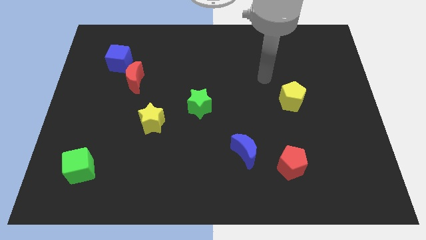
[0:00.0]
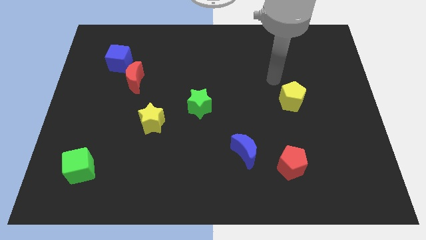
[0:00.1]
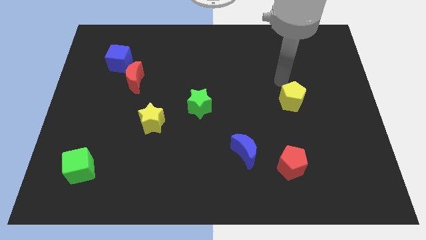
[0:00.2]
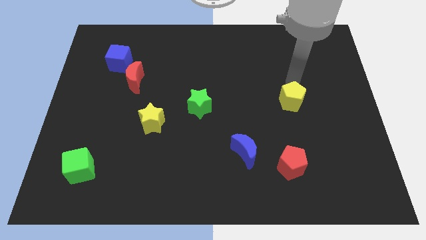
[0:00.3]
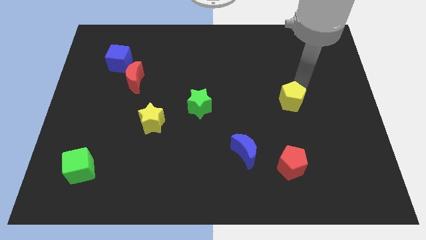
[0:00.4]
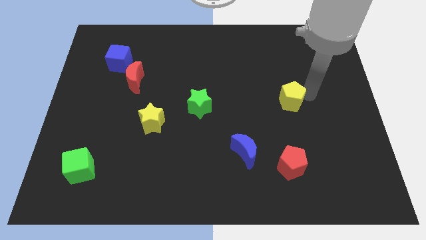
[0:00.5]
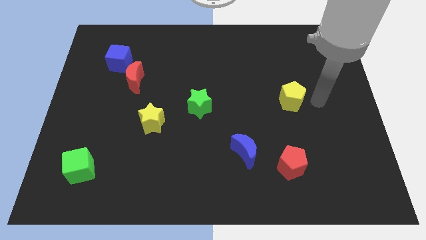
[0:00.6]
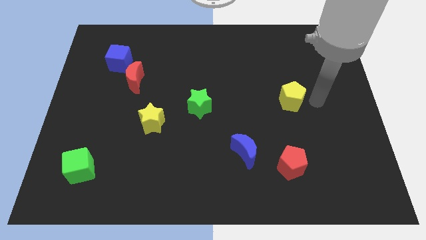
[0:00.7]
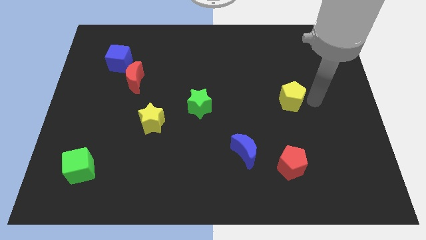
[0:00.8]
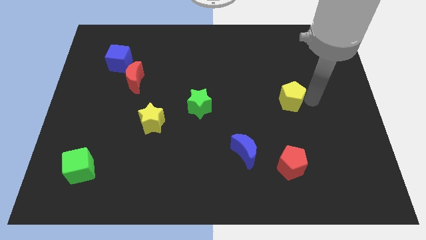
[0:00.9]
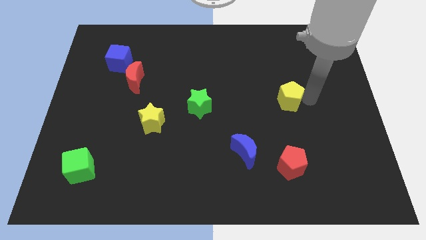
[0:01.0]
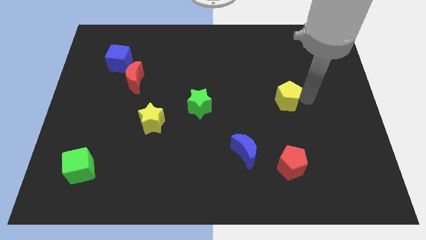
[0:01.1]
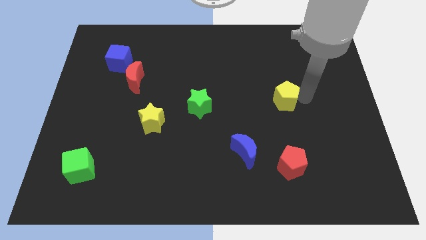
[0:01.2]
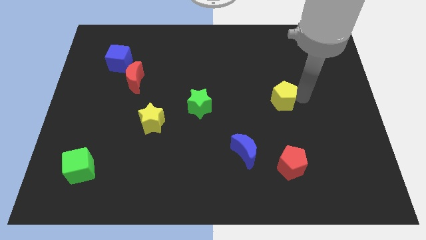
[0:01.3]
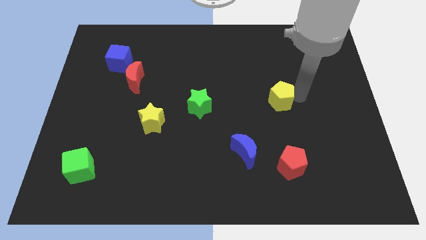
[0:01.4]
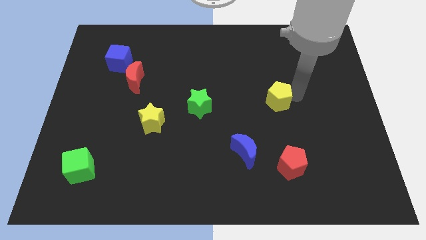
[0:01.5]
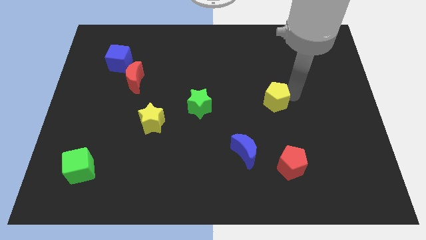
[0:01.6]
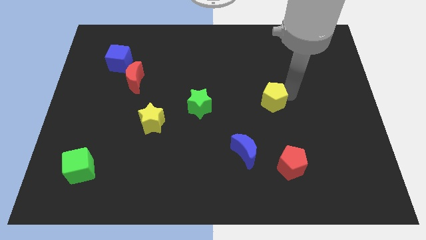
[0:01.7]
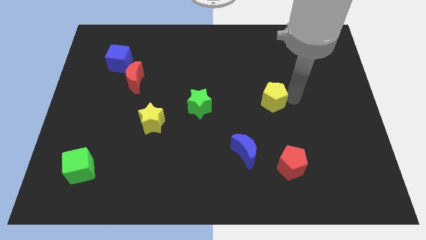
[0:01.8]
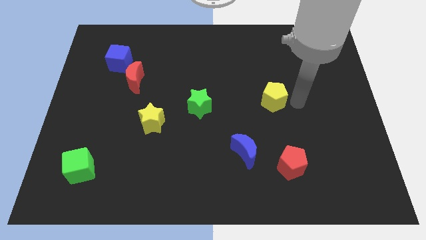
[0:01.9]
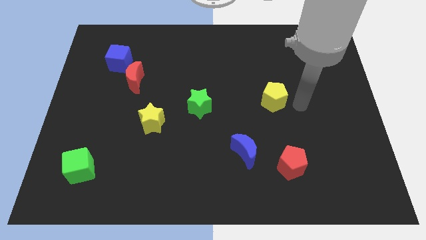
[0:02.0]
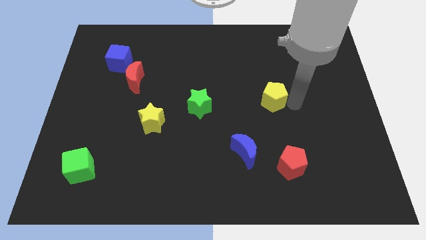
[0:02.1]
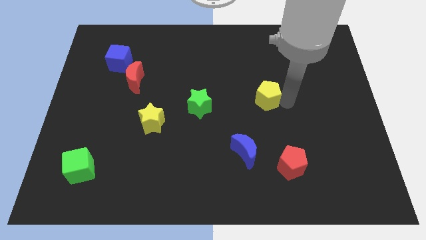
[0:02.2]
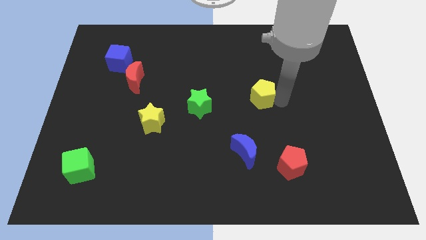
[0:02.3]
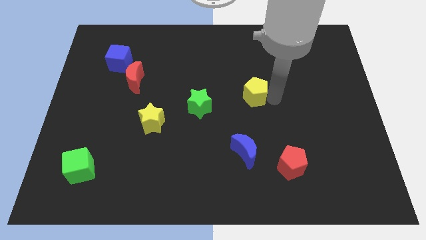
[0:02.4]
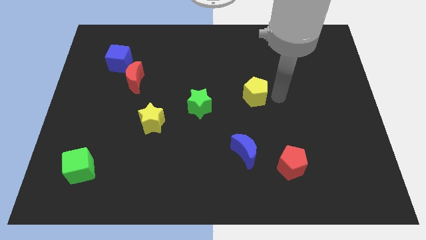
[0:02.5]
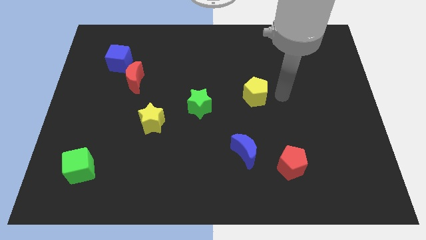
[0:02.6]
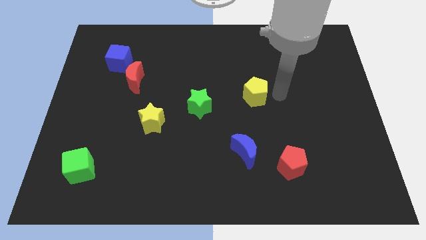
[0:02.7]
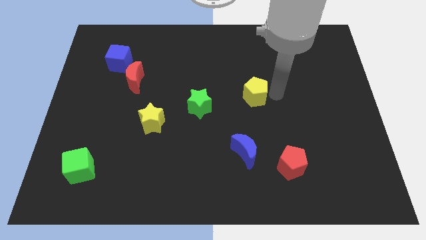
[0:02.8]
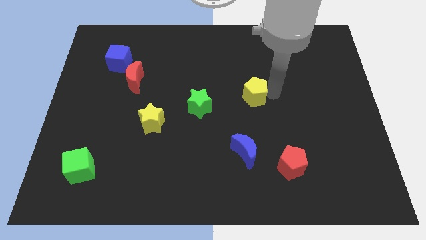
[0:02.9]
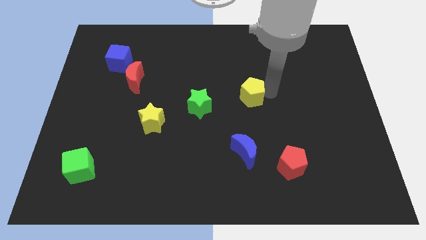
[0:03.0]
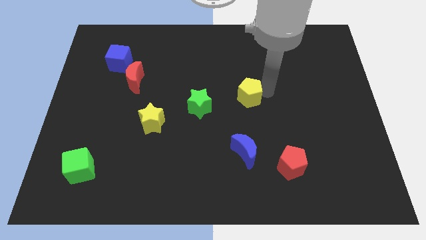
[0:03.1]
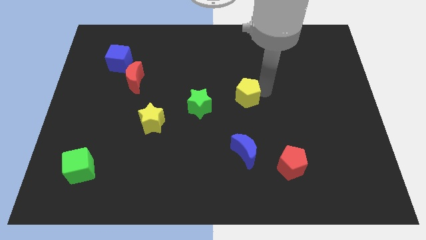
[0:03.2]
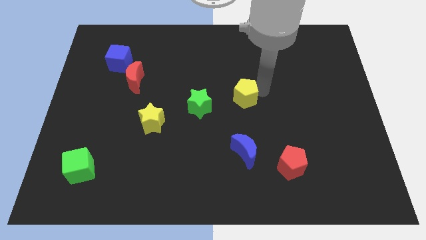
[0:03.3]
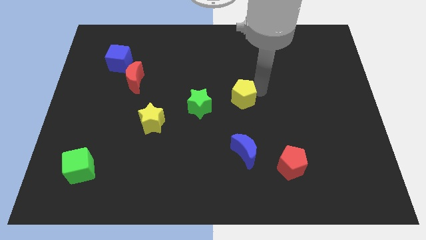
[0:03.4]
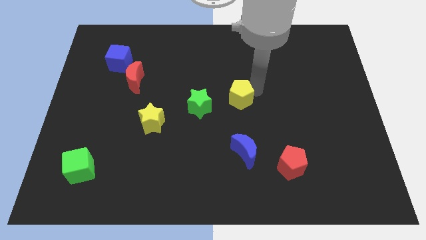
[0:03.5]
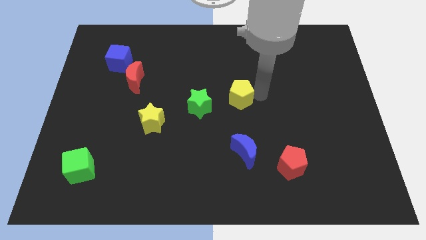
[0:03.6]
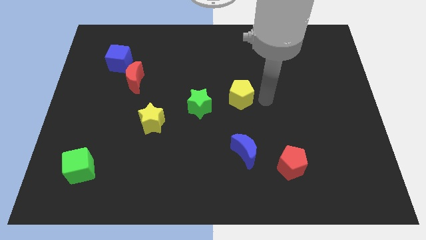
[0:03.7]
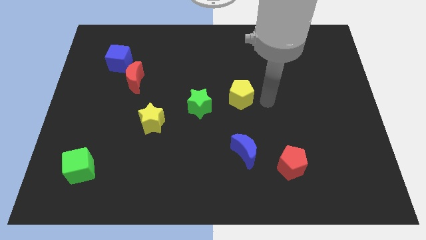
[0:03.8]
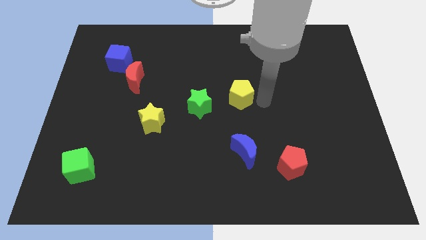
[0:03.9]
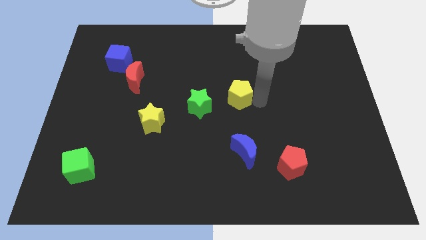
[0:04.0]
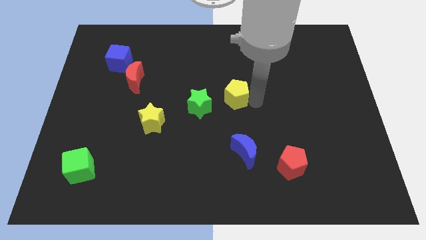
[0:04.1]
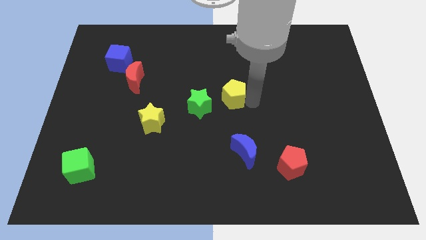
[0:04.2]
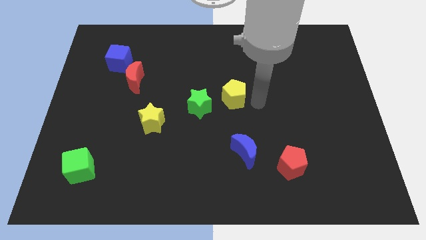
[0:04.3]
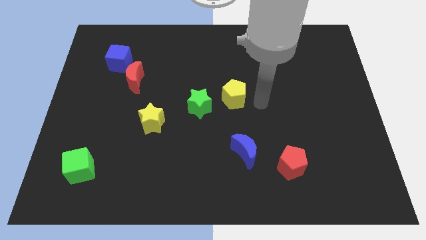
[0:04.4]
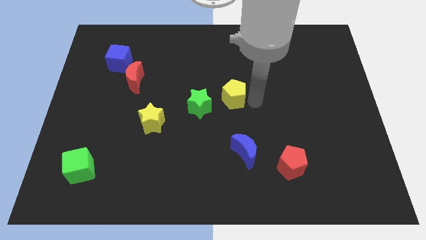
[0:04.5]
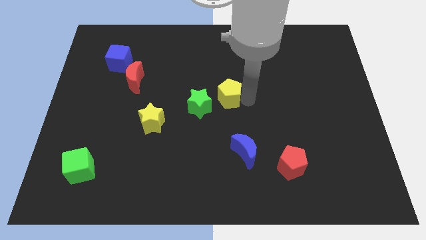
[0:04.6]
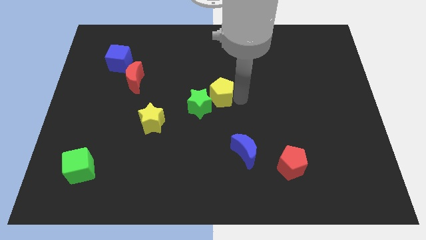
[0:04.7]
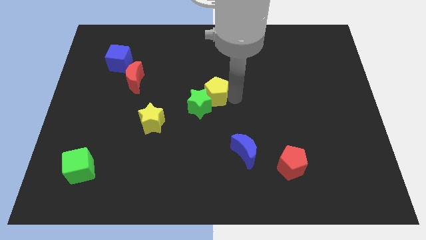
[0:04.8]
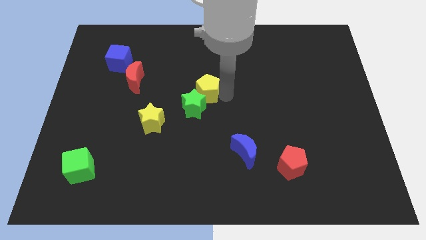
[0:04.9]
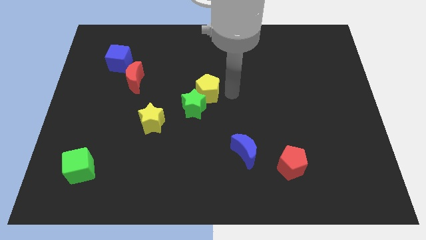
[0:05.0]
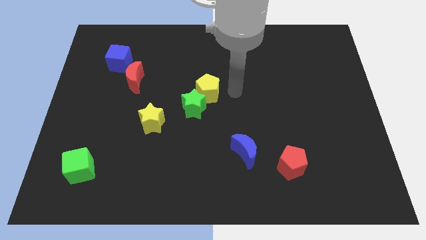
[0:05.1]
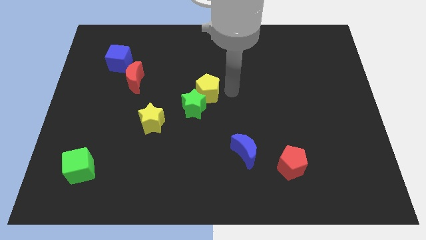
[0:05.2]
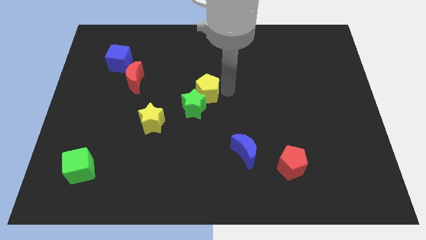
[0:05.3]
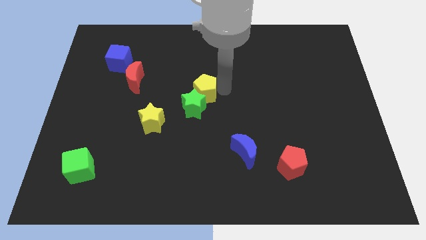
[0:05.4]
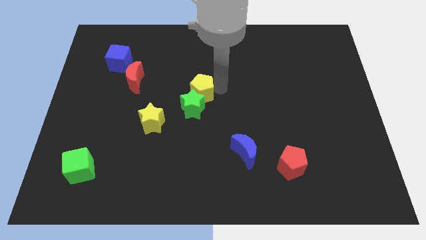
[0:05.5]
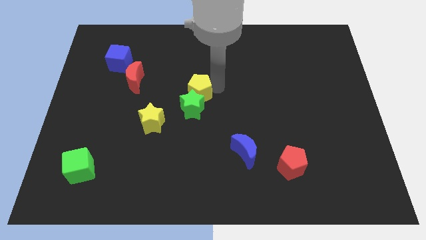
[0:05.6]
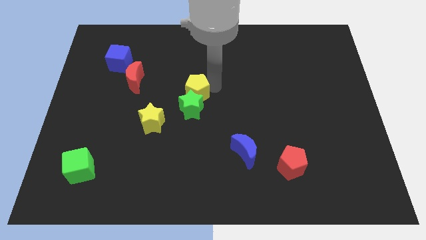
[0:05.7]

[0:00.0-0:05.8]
push the yellow pentagon to the top left side of the green star

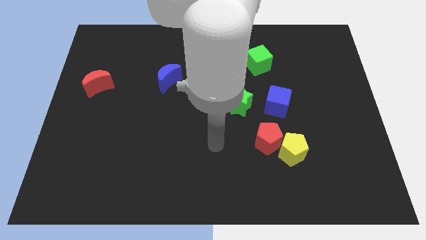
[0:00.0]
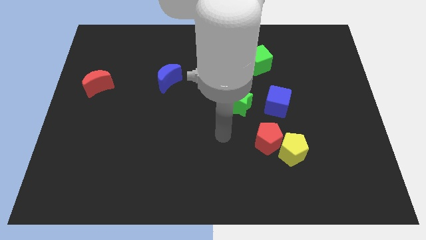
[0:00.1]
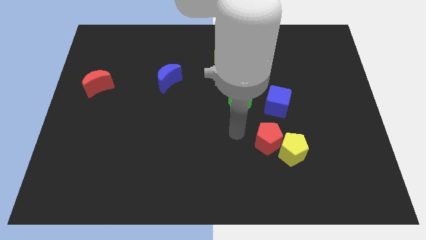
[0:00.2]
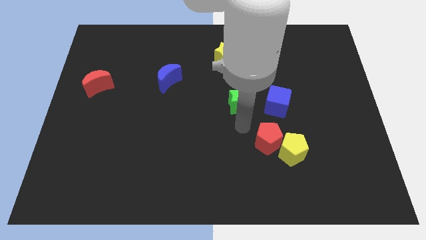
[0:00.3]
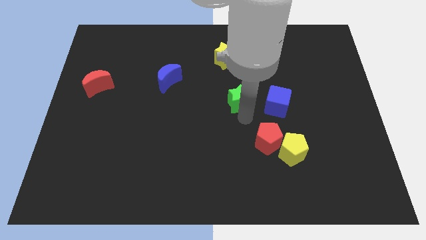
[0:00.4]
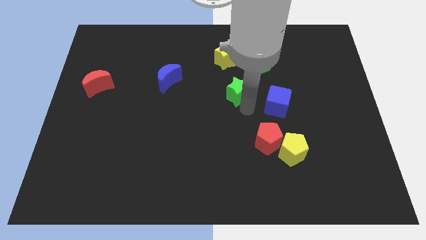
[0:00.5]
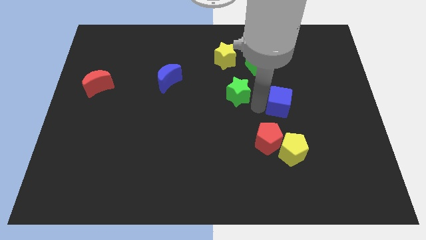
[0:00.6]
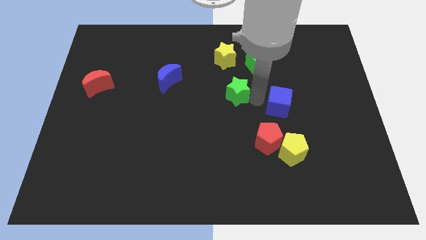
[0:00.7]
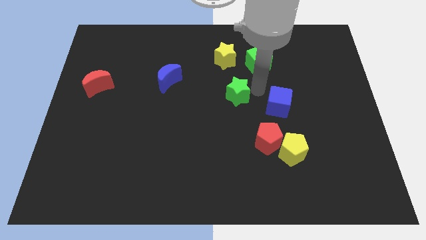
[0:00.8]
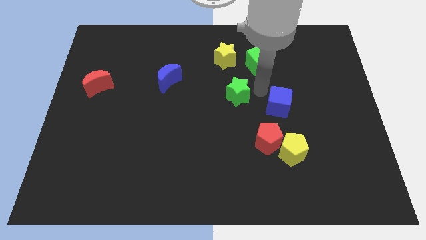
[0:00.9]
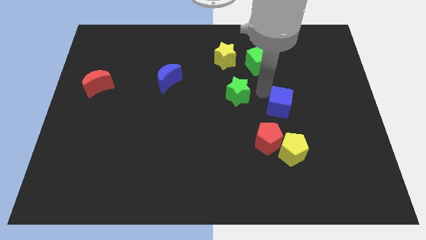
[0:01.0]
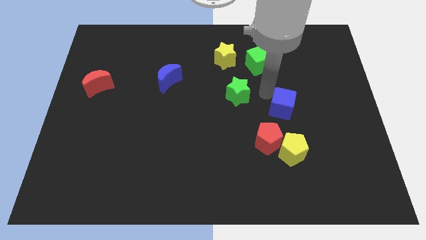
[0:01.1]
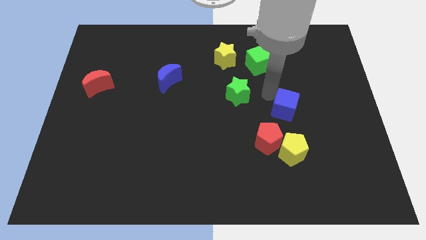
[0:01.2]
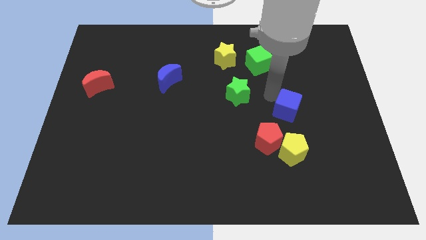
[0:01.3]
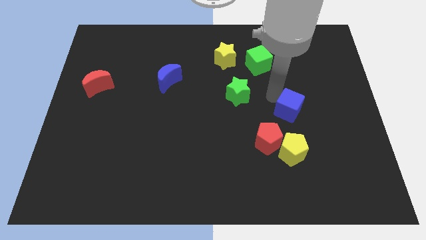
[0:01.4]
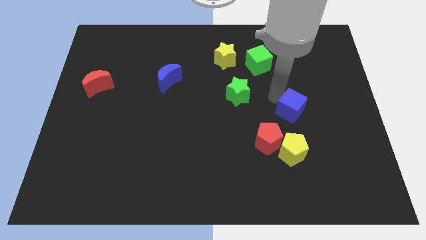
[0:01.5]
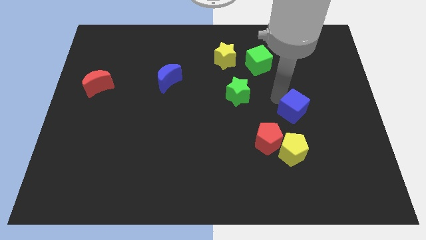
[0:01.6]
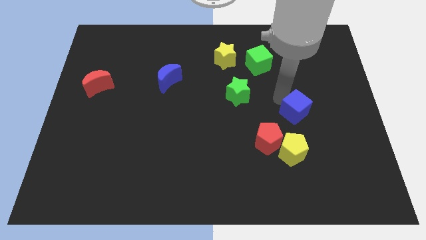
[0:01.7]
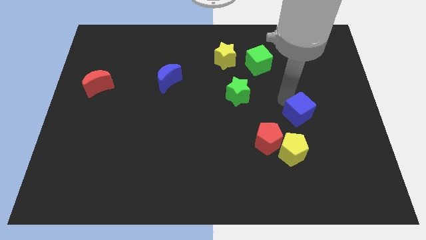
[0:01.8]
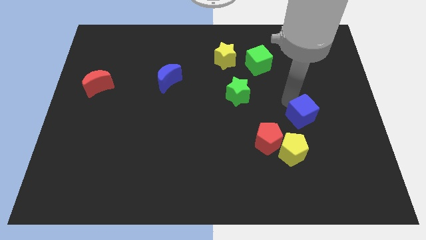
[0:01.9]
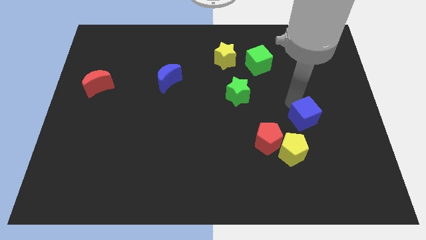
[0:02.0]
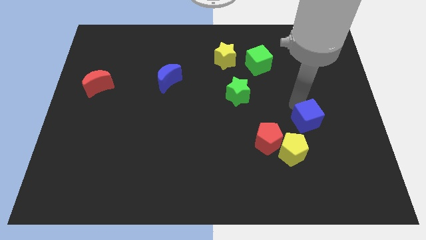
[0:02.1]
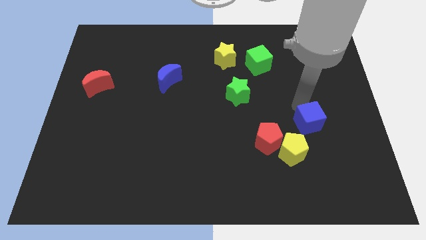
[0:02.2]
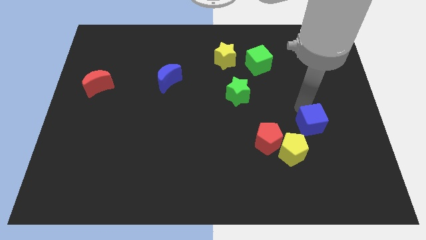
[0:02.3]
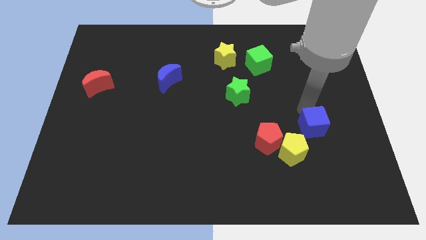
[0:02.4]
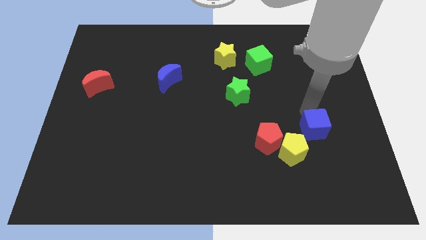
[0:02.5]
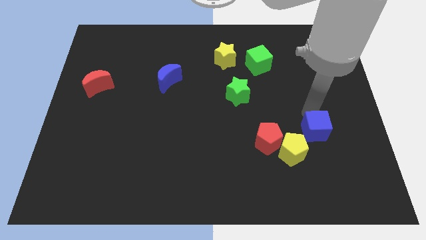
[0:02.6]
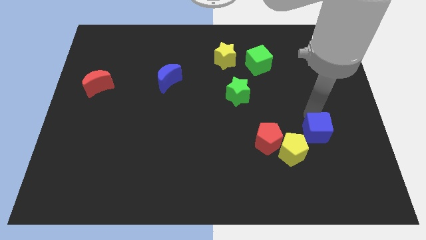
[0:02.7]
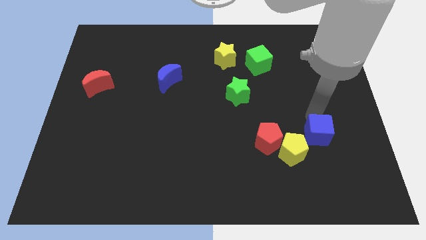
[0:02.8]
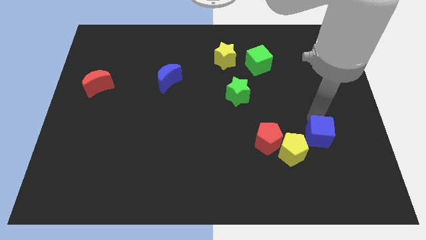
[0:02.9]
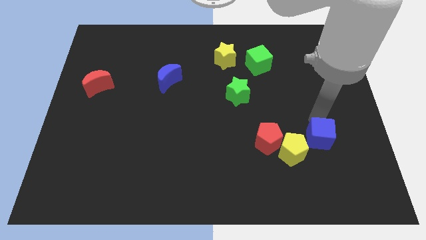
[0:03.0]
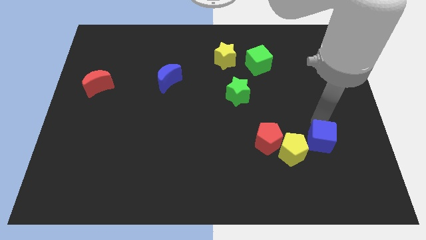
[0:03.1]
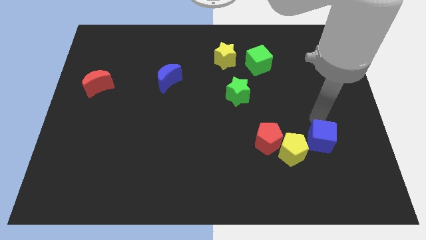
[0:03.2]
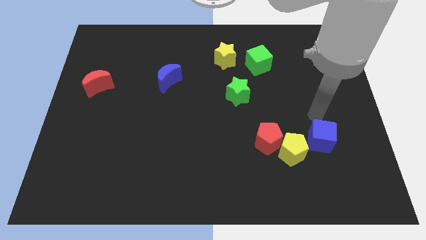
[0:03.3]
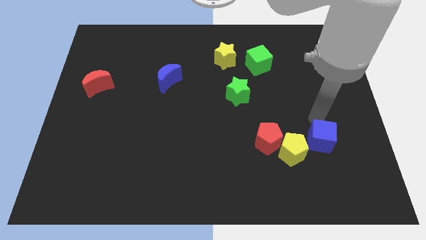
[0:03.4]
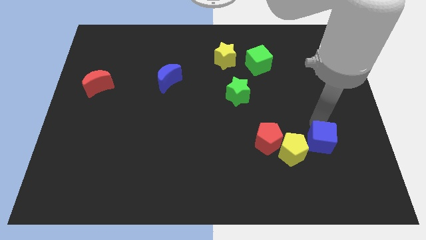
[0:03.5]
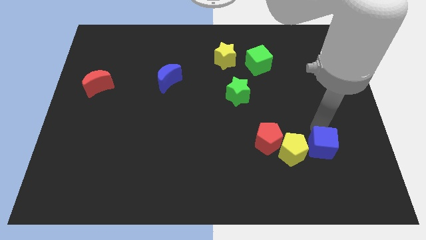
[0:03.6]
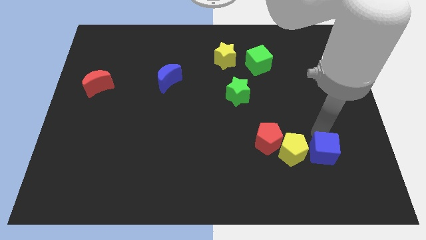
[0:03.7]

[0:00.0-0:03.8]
move the blue cube to the bottom right of the yellow pentagon
